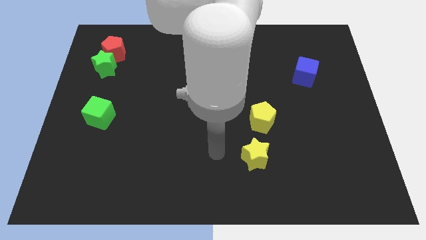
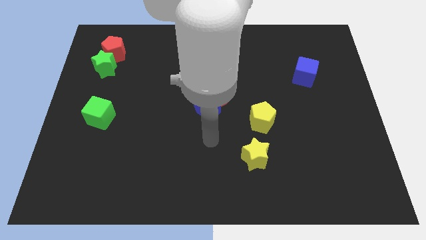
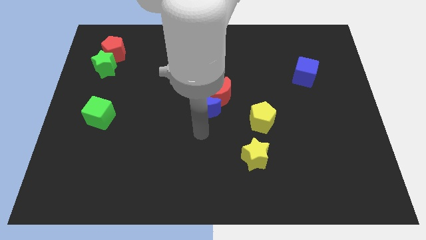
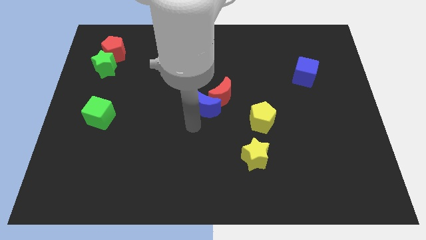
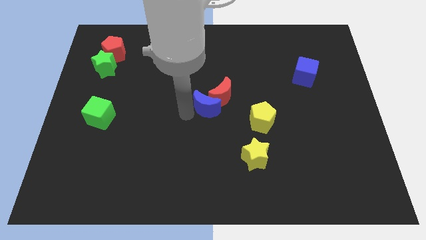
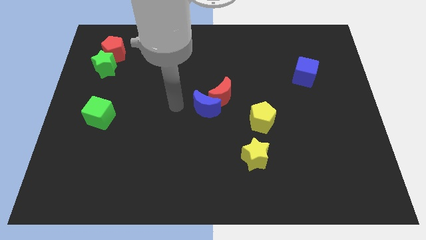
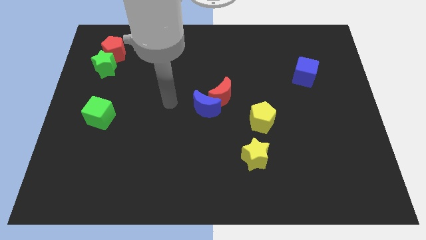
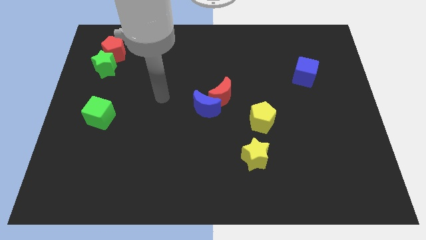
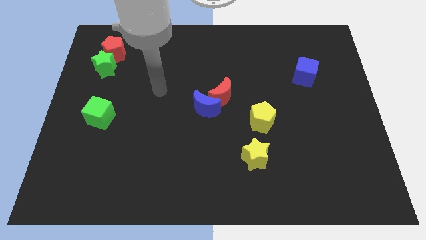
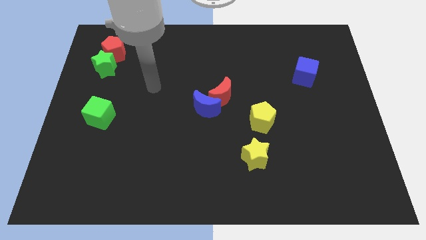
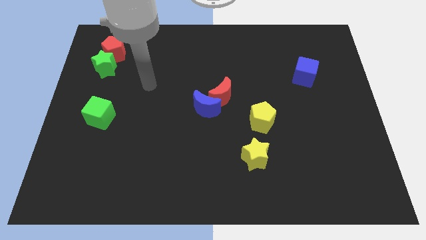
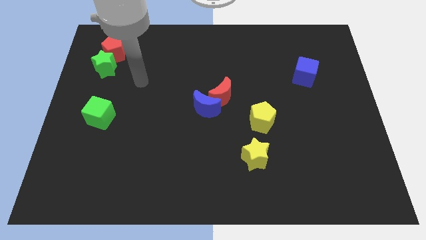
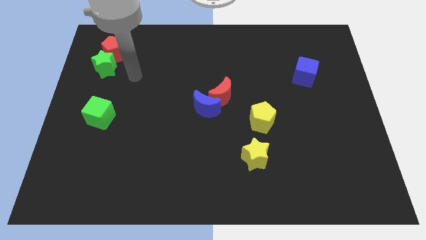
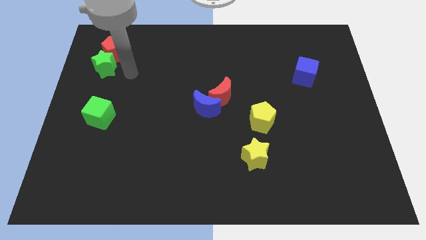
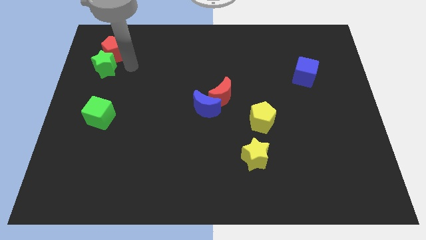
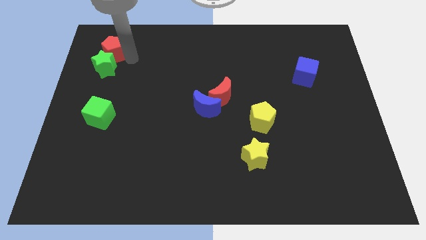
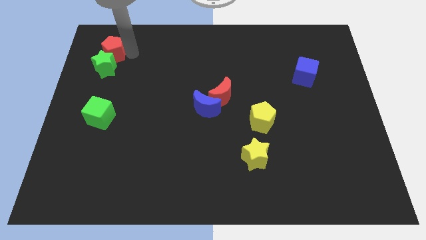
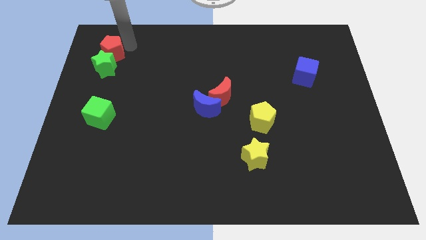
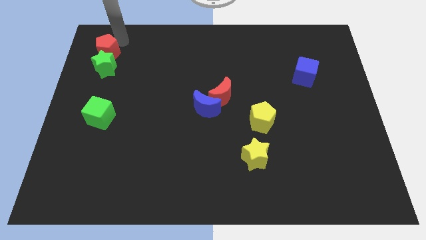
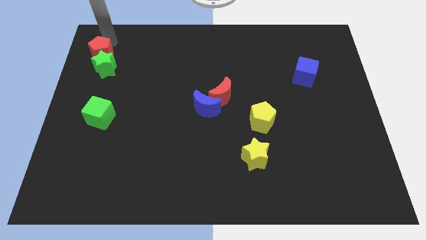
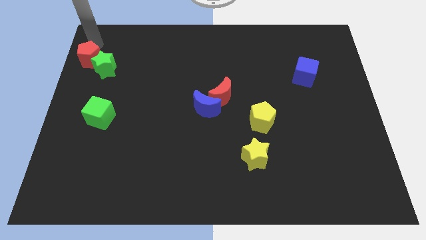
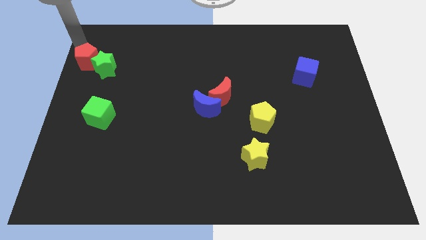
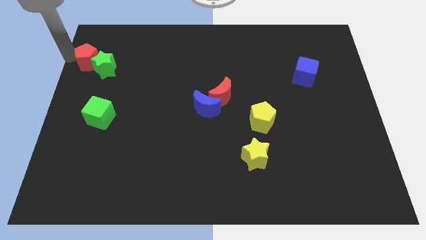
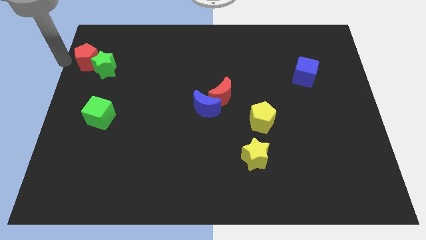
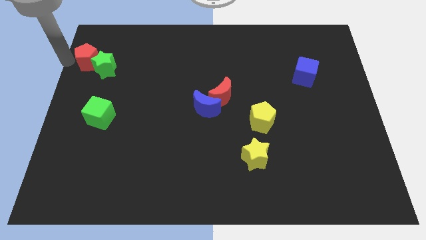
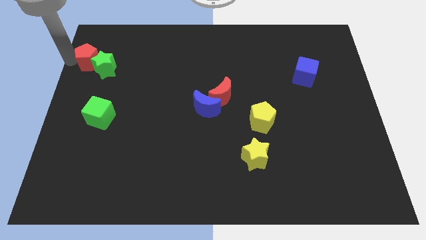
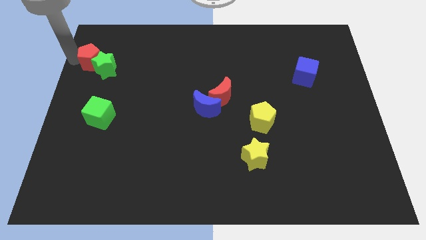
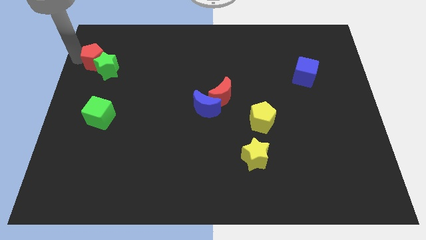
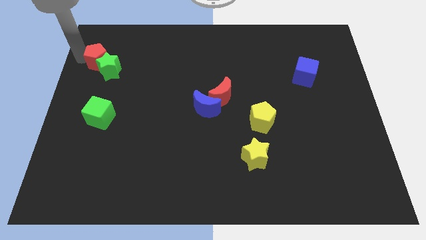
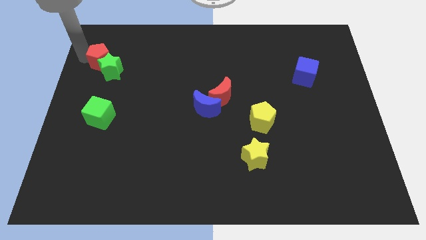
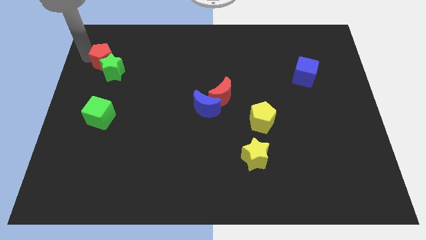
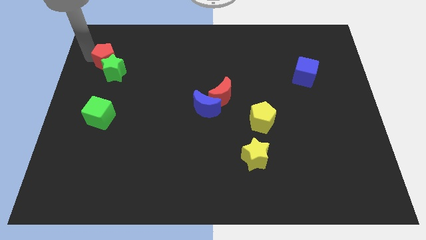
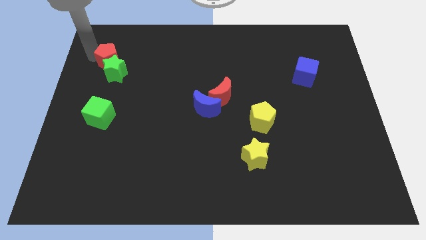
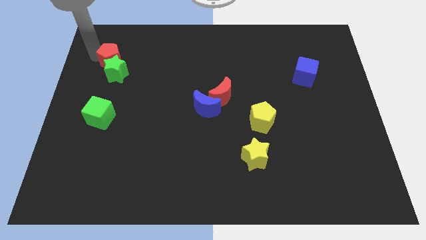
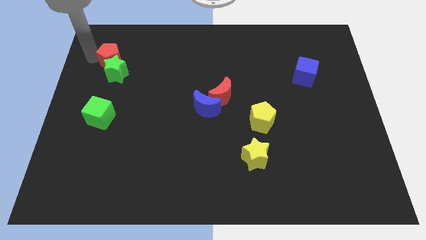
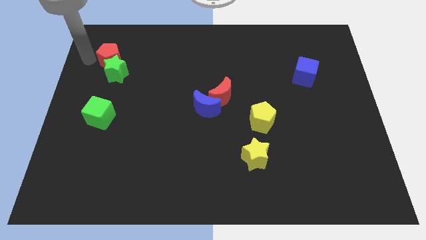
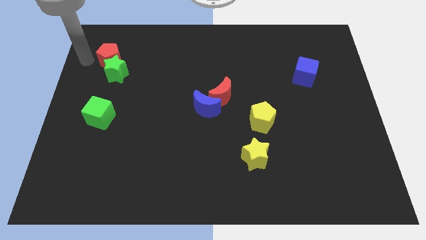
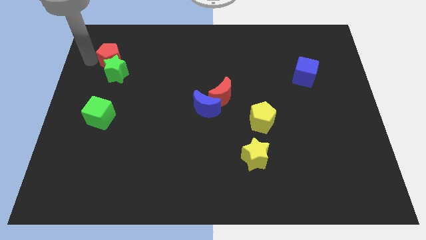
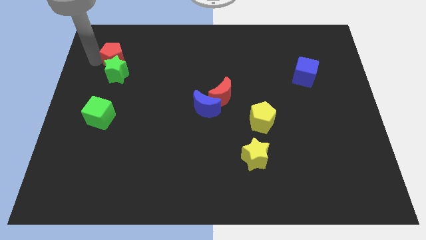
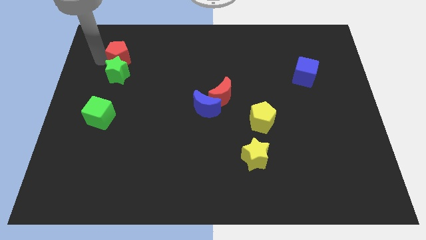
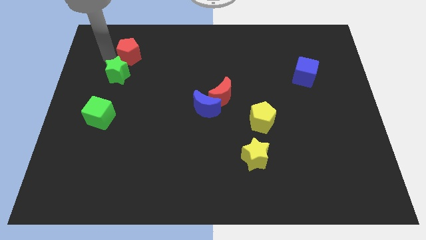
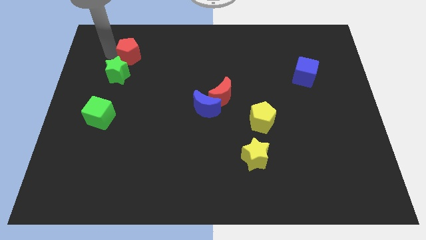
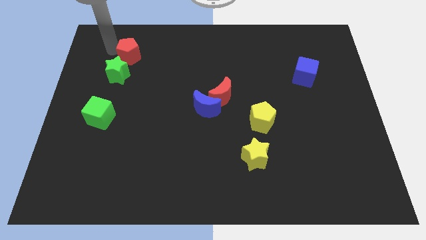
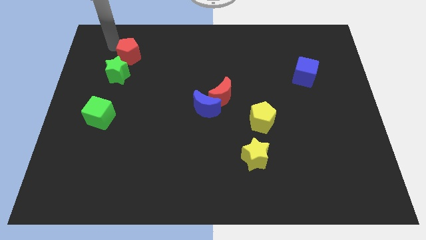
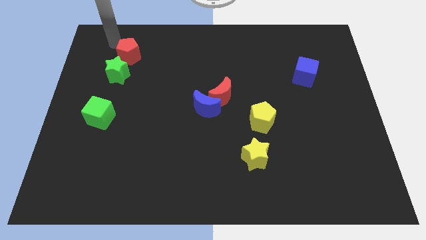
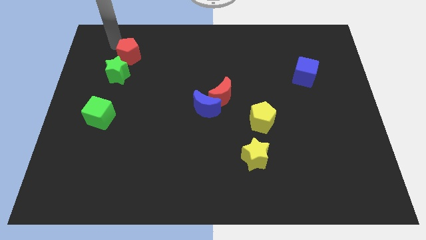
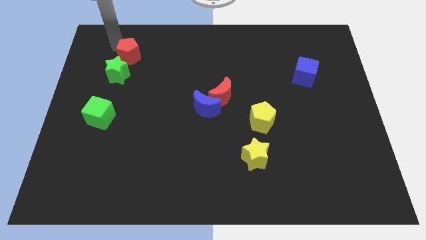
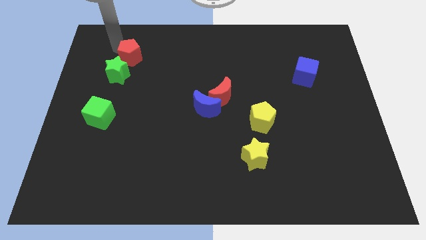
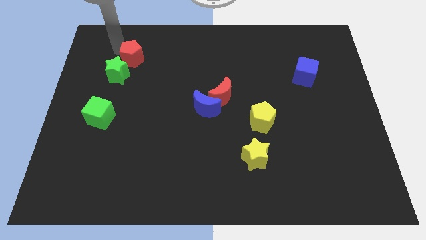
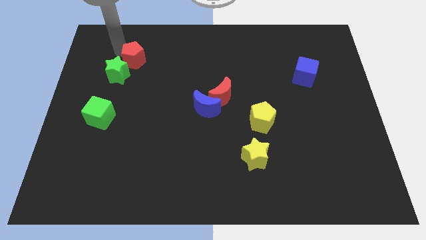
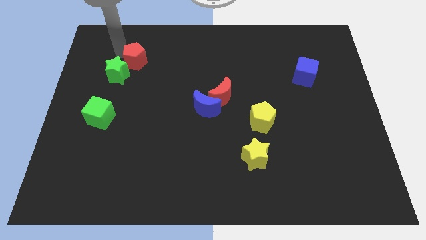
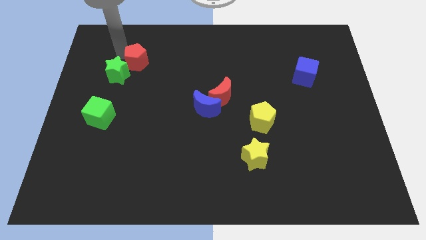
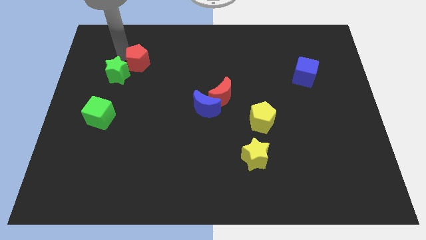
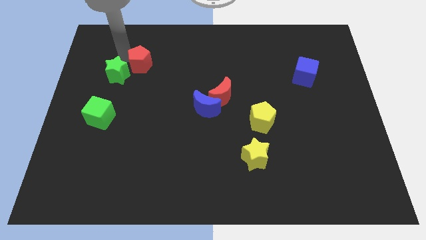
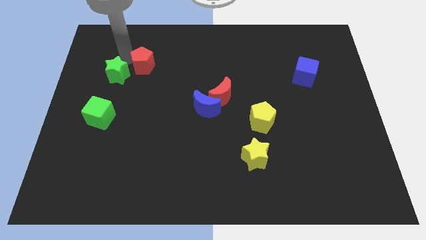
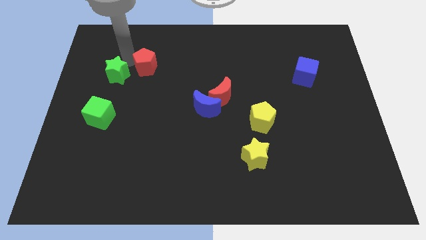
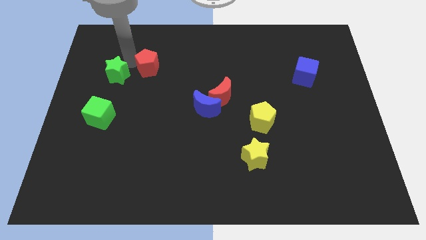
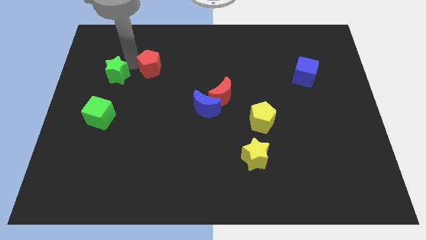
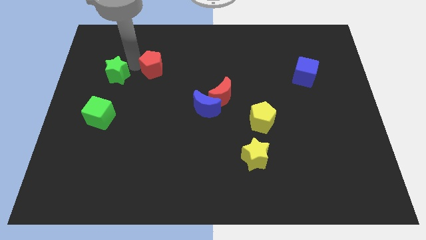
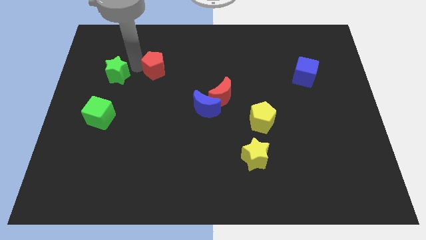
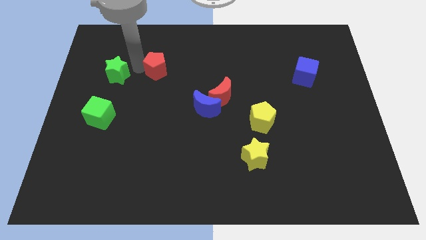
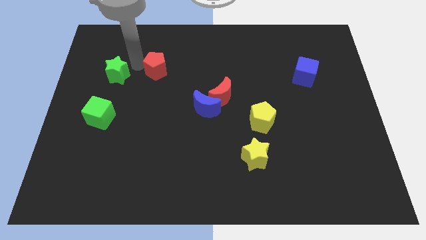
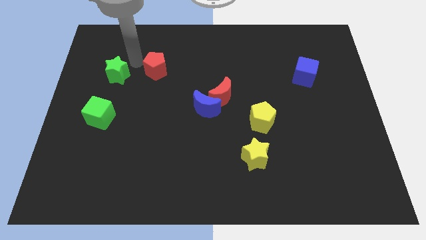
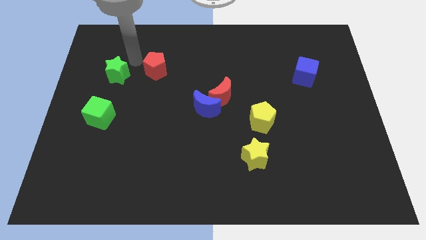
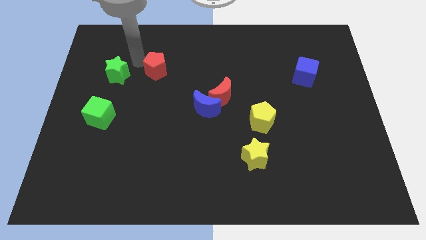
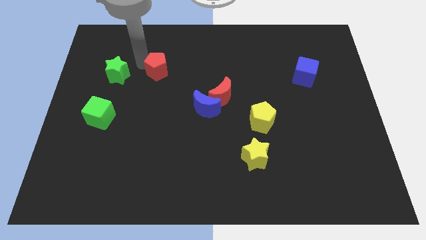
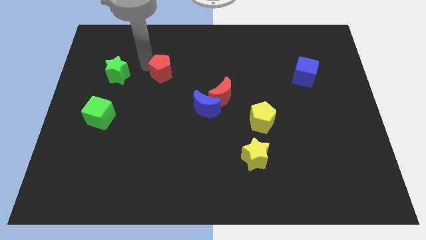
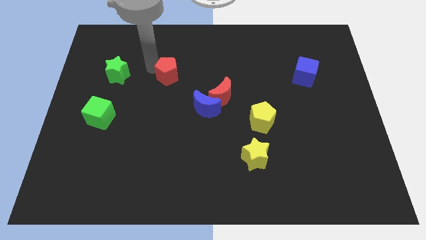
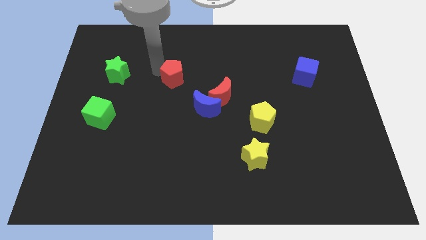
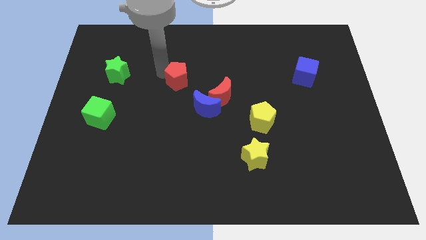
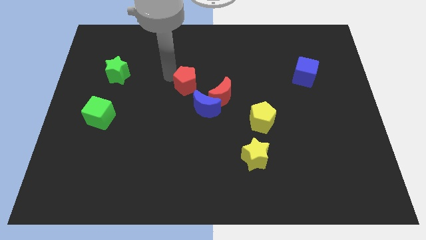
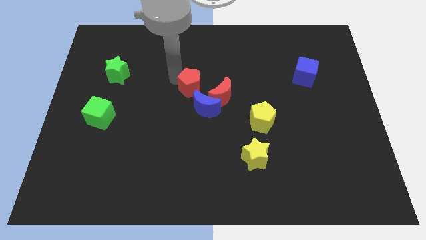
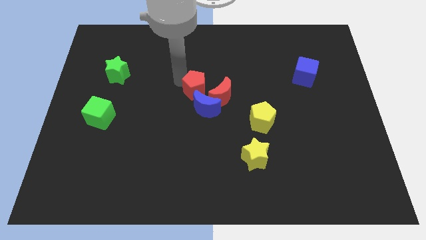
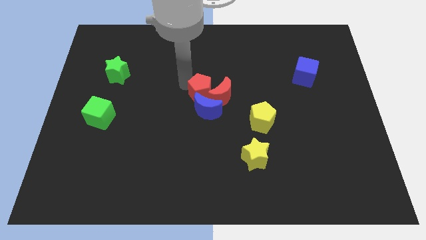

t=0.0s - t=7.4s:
push the red pentagon close to the red moon

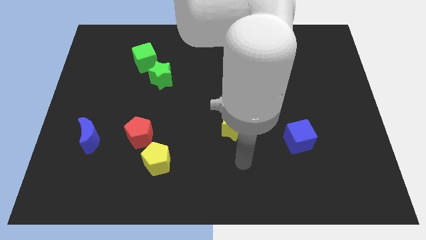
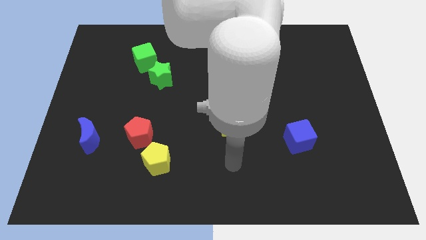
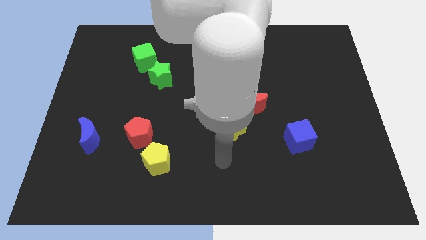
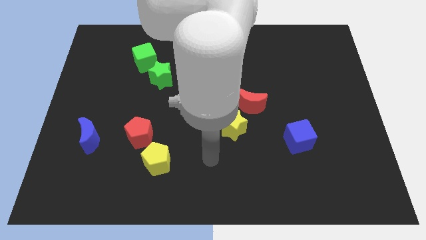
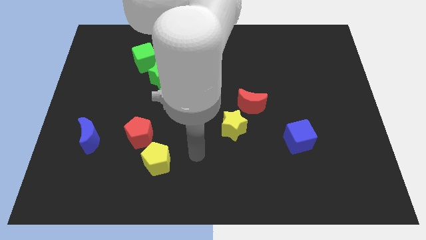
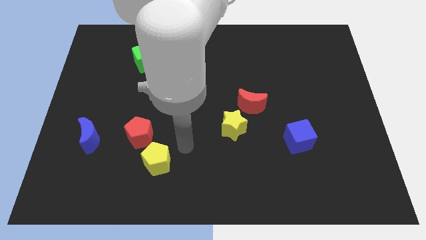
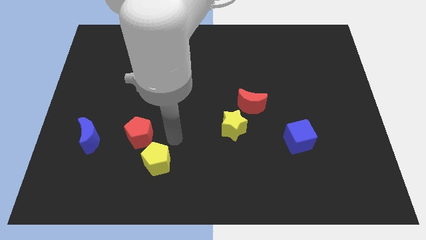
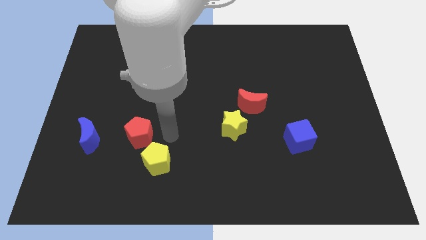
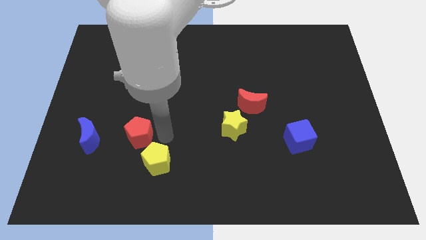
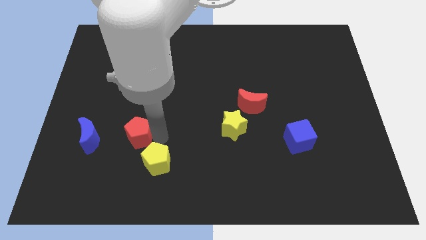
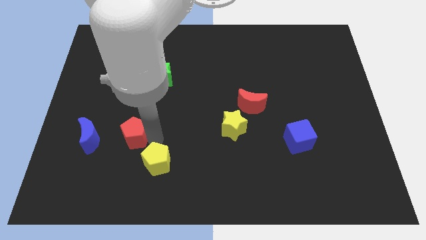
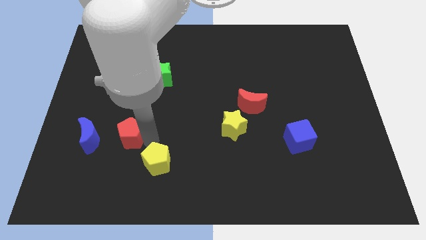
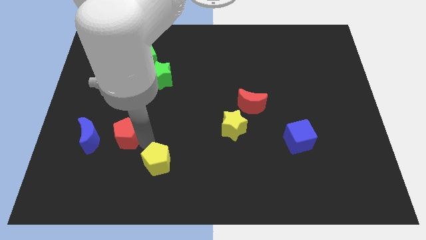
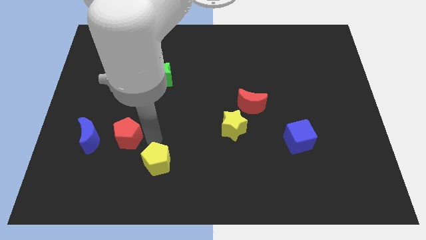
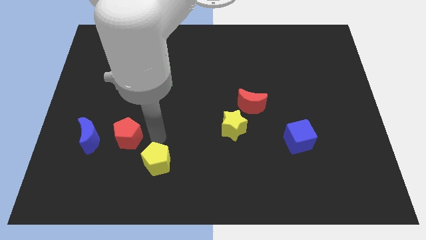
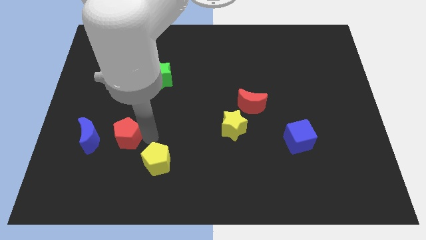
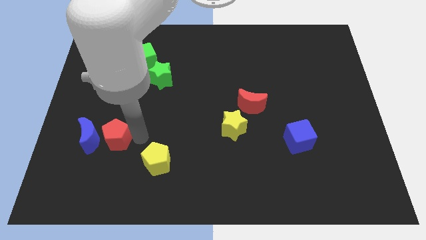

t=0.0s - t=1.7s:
slide the red pentagon next to the blue moon
